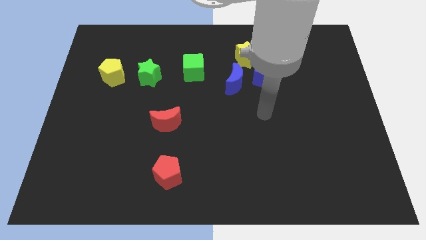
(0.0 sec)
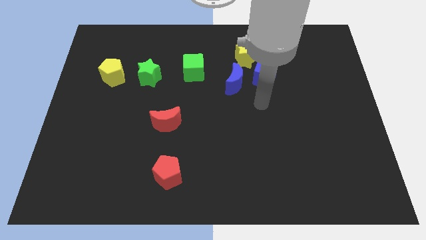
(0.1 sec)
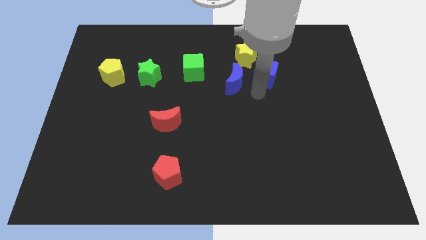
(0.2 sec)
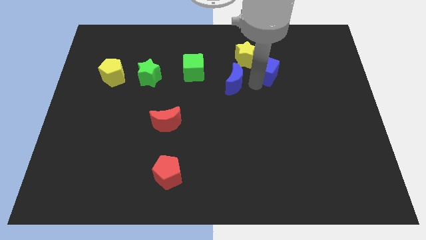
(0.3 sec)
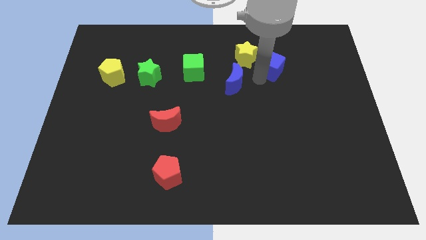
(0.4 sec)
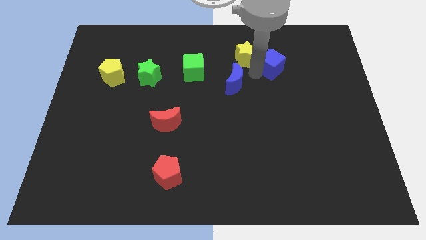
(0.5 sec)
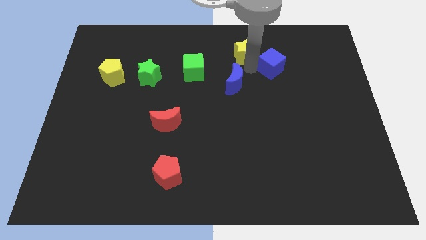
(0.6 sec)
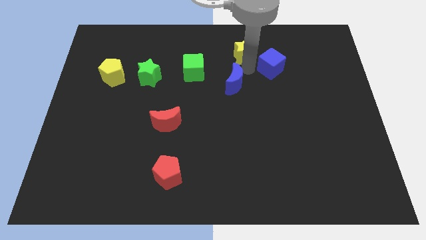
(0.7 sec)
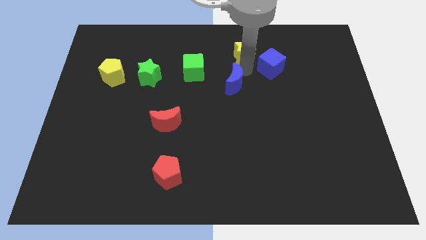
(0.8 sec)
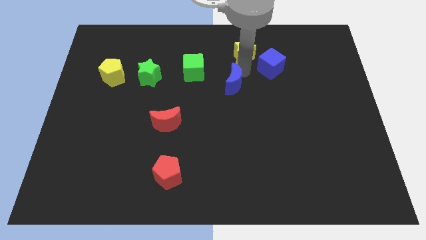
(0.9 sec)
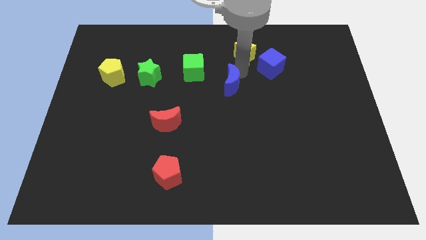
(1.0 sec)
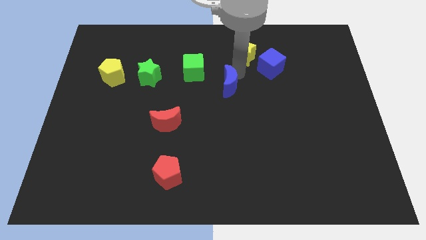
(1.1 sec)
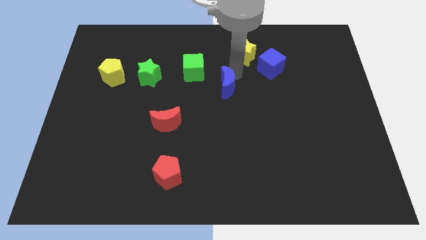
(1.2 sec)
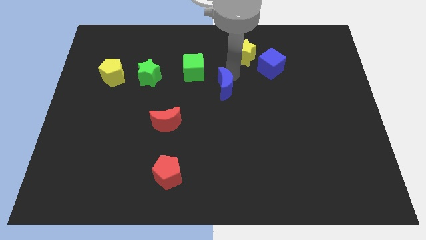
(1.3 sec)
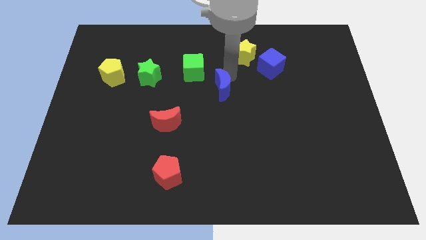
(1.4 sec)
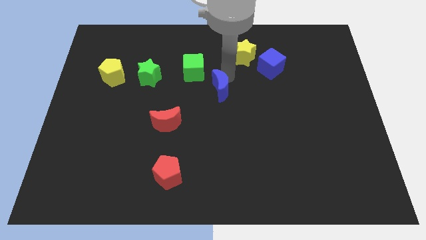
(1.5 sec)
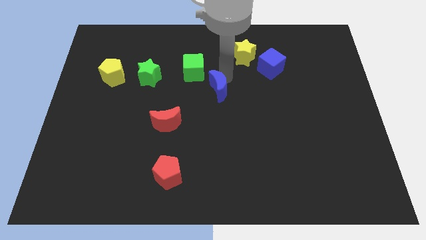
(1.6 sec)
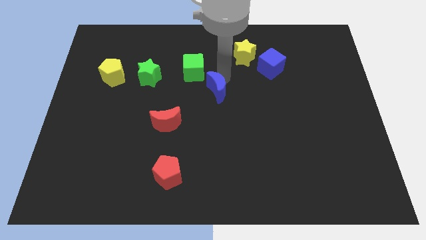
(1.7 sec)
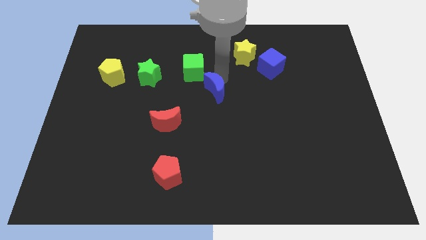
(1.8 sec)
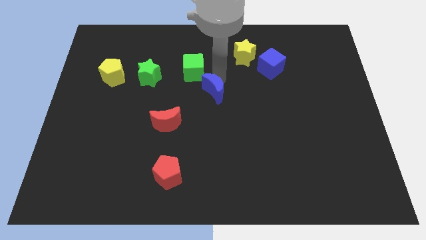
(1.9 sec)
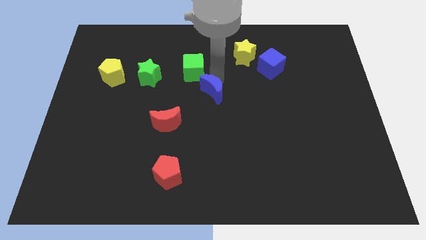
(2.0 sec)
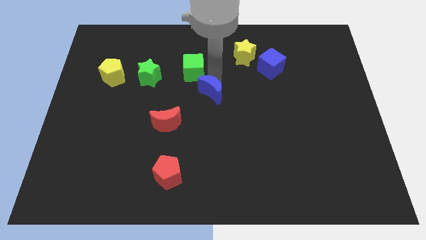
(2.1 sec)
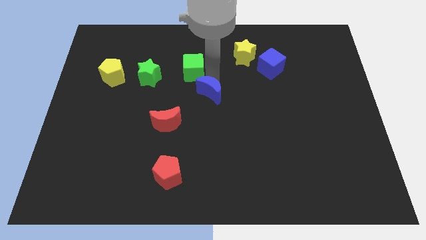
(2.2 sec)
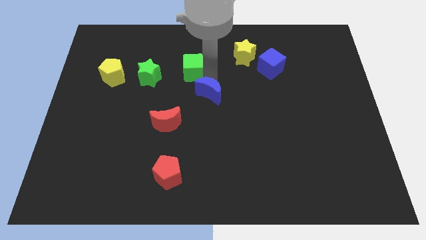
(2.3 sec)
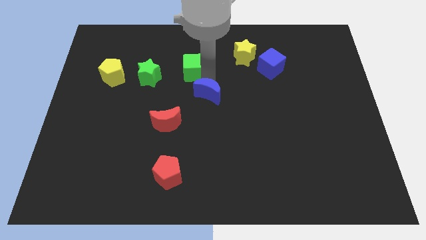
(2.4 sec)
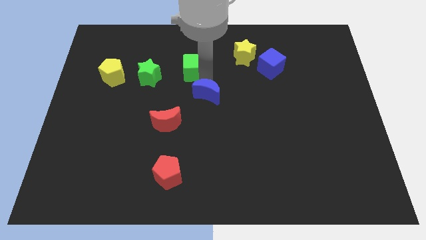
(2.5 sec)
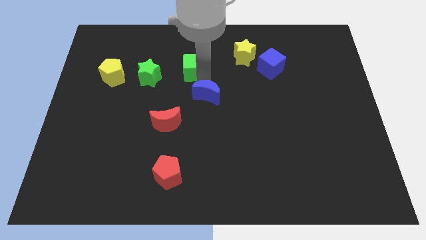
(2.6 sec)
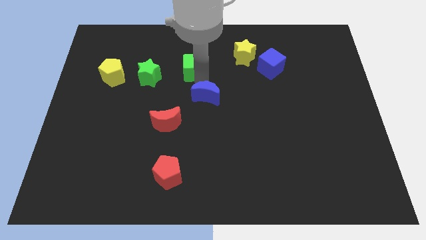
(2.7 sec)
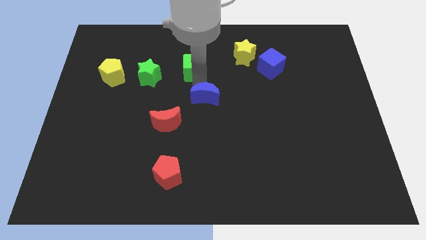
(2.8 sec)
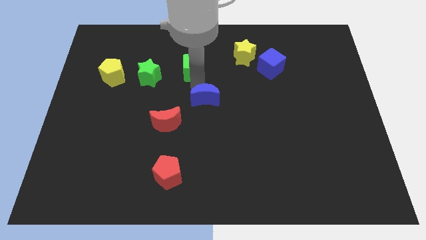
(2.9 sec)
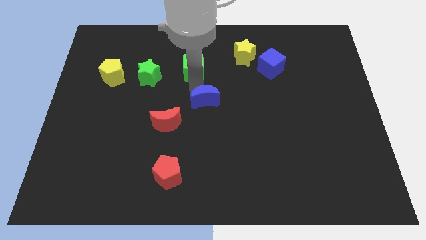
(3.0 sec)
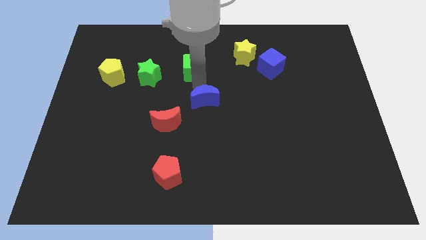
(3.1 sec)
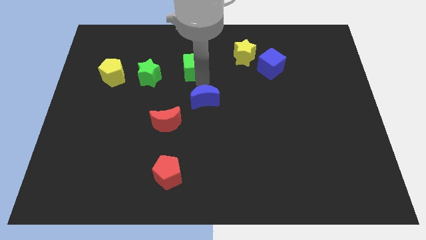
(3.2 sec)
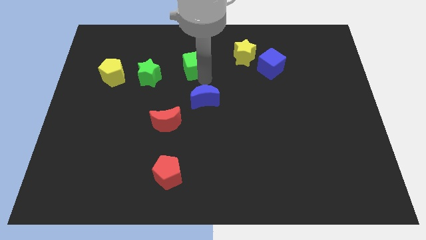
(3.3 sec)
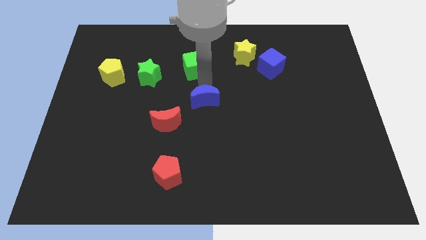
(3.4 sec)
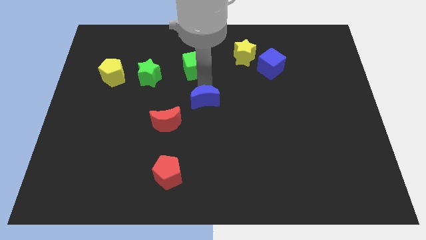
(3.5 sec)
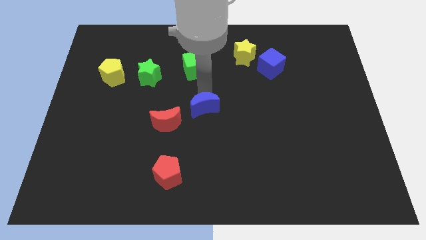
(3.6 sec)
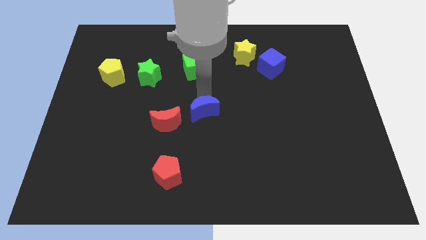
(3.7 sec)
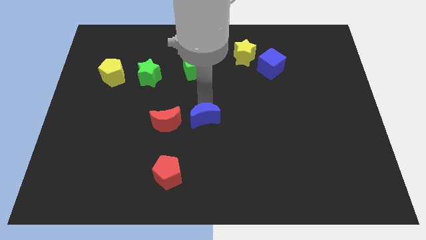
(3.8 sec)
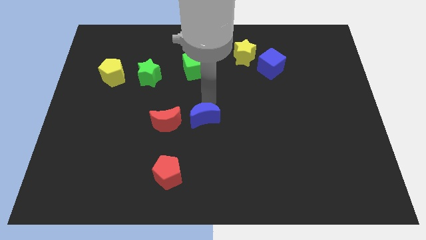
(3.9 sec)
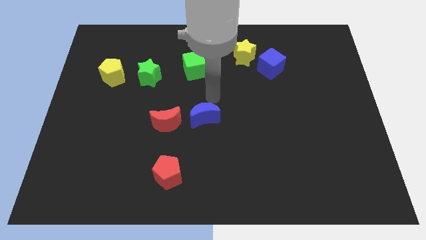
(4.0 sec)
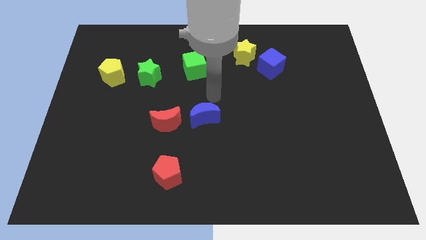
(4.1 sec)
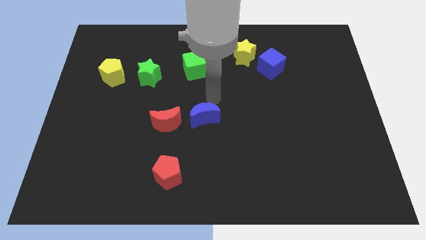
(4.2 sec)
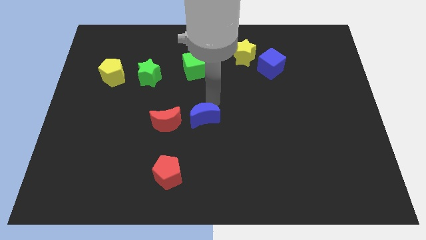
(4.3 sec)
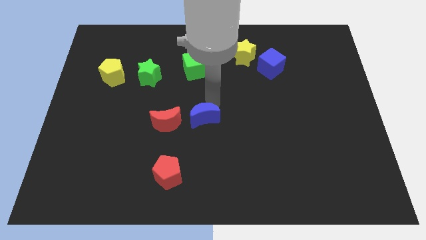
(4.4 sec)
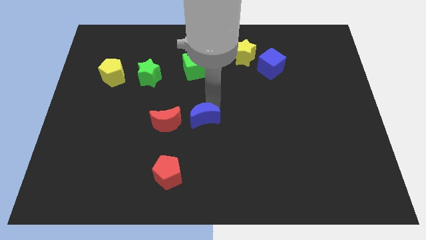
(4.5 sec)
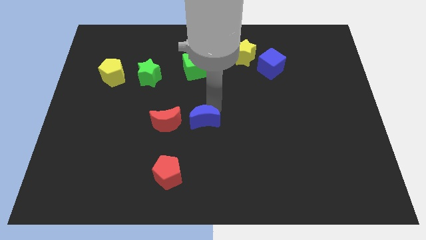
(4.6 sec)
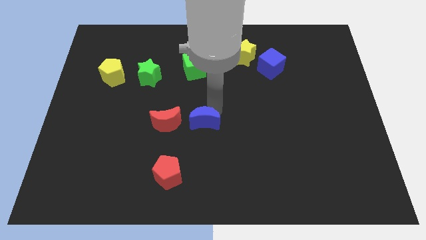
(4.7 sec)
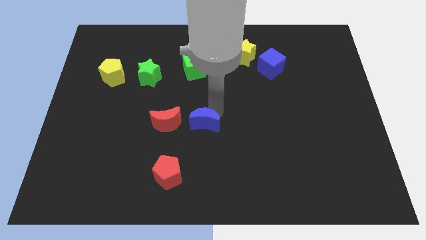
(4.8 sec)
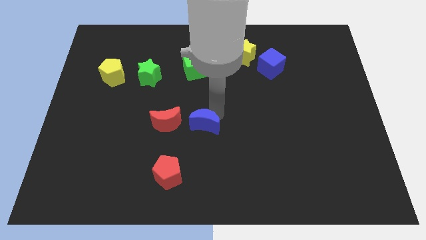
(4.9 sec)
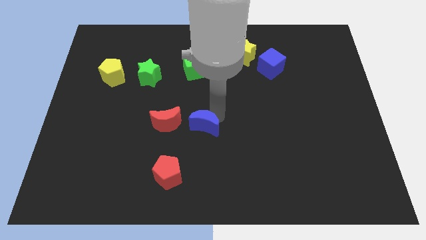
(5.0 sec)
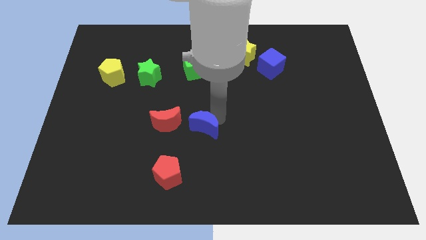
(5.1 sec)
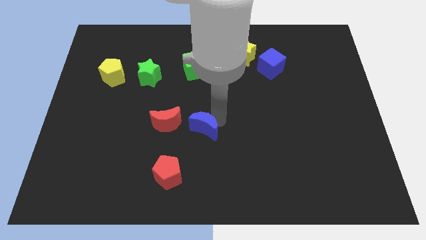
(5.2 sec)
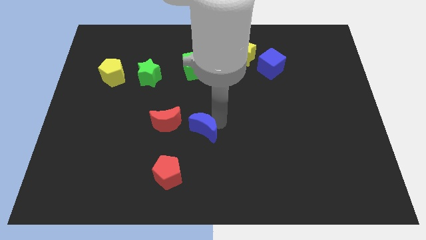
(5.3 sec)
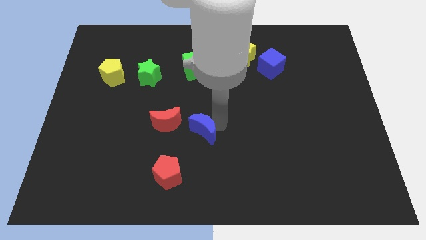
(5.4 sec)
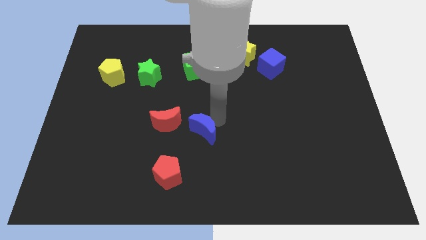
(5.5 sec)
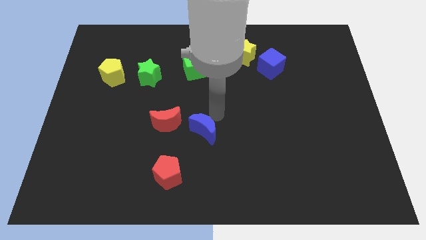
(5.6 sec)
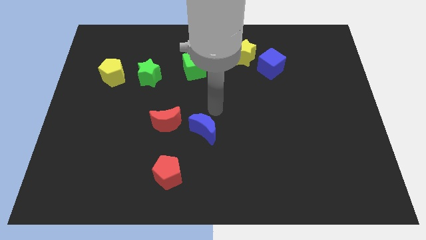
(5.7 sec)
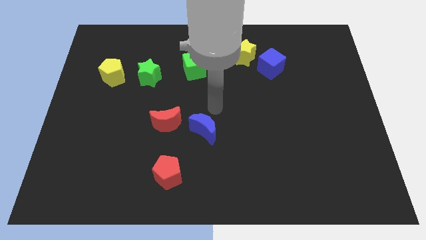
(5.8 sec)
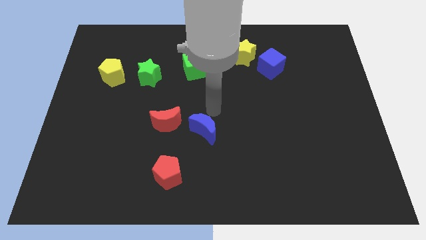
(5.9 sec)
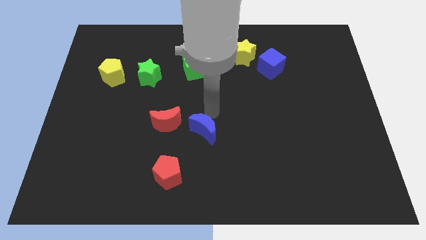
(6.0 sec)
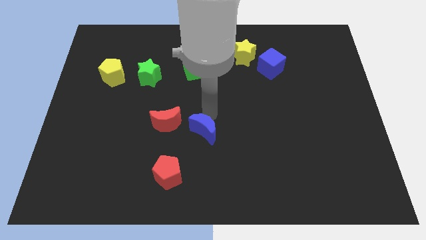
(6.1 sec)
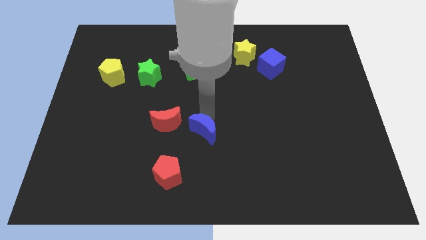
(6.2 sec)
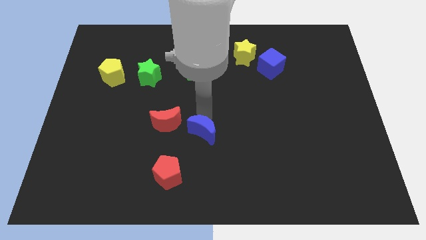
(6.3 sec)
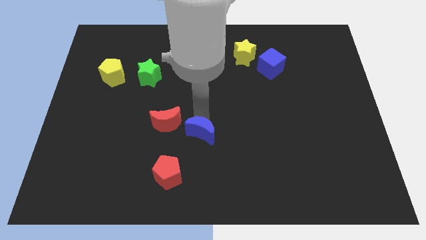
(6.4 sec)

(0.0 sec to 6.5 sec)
slide the blue moon to the top right of the red pentagon
